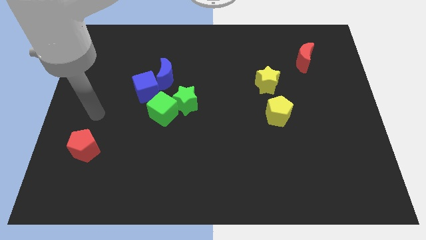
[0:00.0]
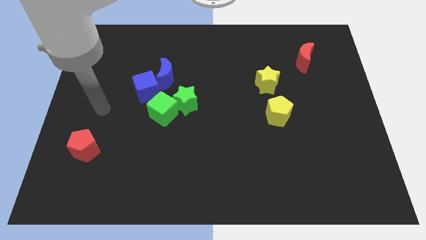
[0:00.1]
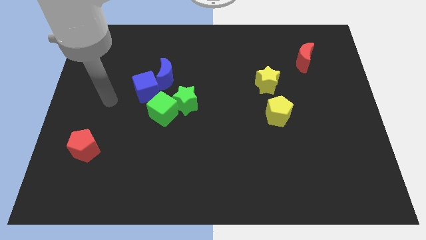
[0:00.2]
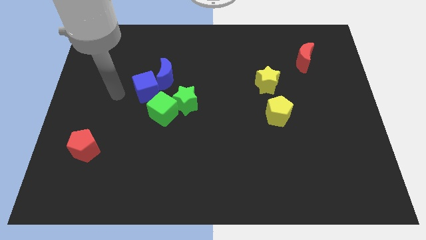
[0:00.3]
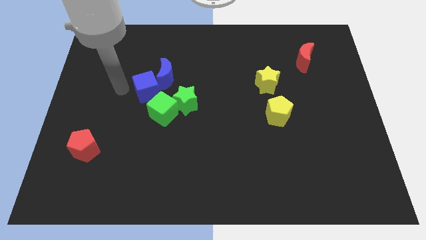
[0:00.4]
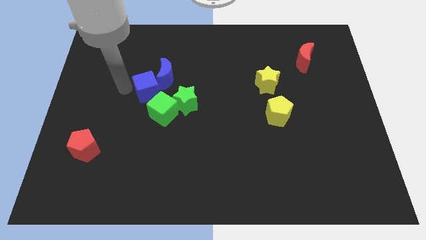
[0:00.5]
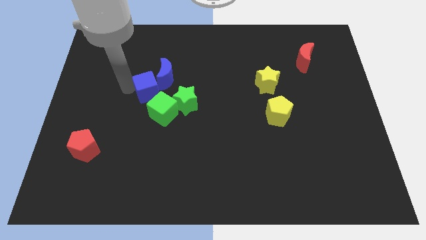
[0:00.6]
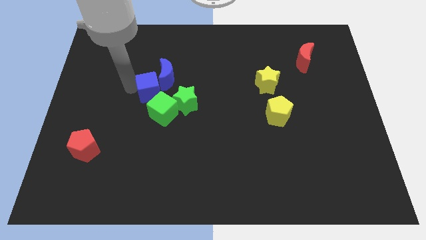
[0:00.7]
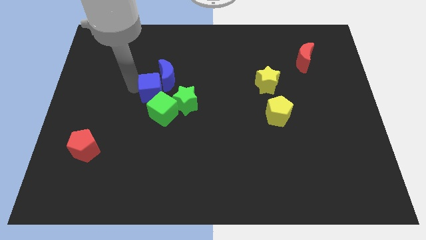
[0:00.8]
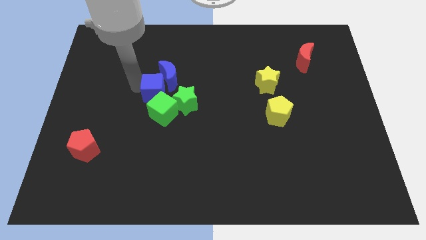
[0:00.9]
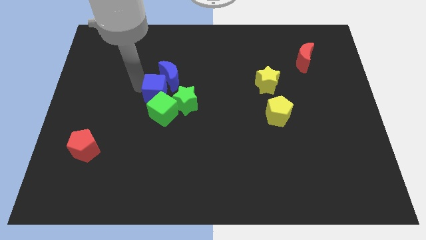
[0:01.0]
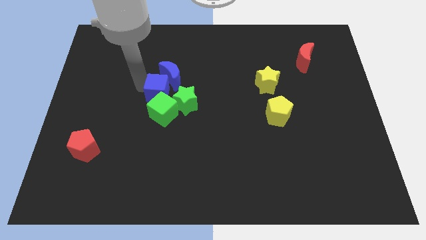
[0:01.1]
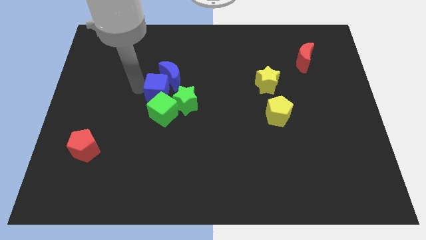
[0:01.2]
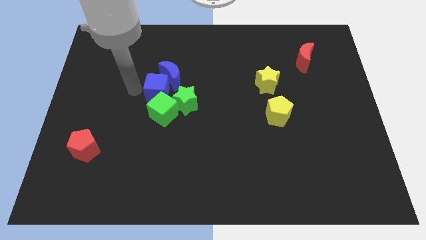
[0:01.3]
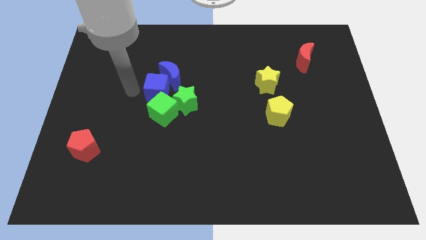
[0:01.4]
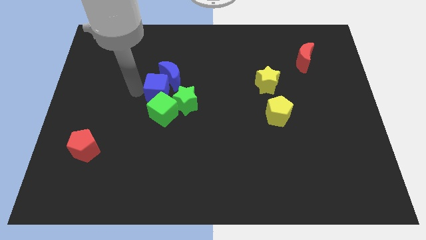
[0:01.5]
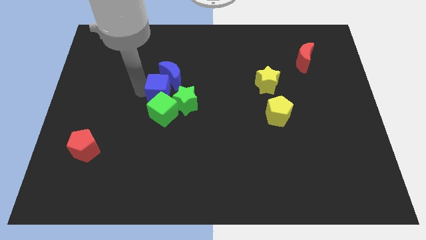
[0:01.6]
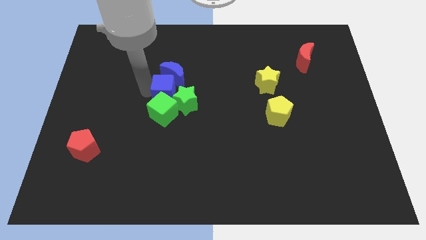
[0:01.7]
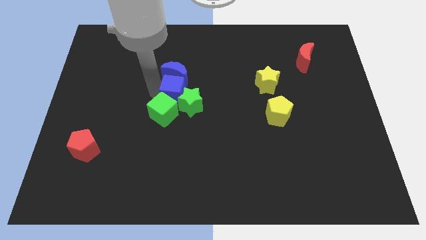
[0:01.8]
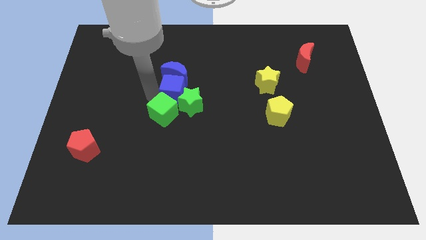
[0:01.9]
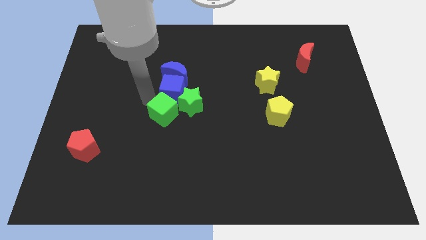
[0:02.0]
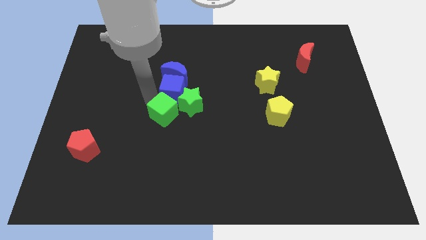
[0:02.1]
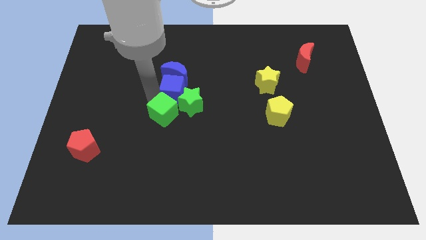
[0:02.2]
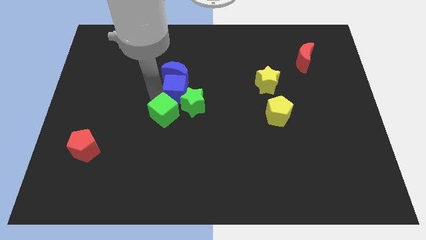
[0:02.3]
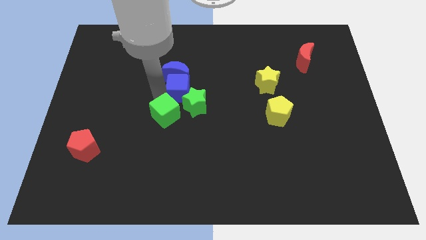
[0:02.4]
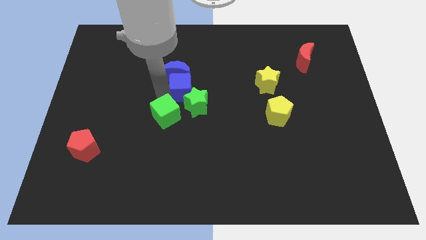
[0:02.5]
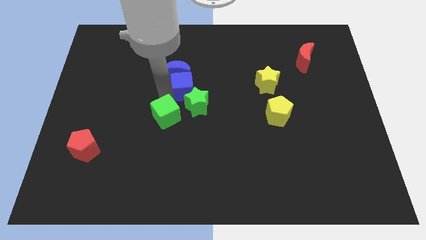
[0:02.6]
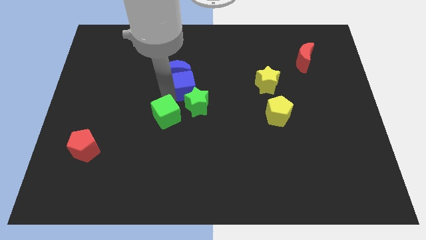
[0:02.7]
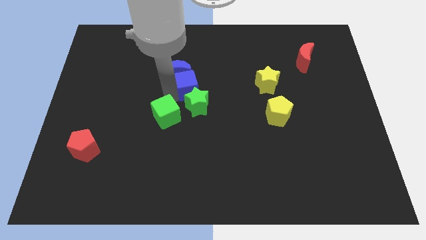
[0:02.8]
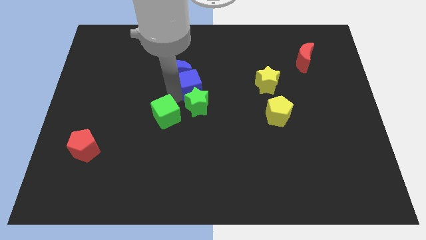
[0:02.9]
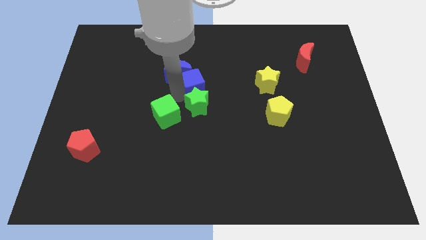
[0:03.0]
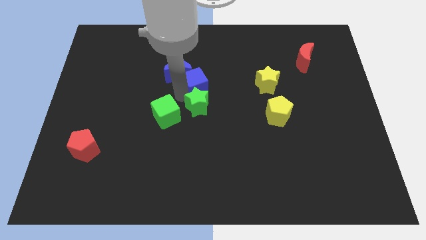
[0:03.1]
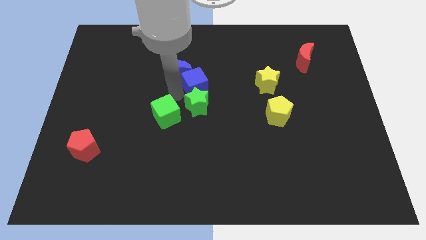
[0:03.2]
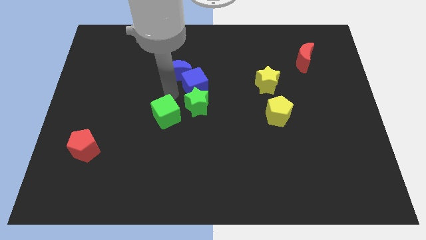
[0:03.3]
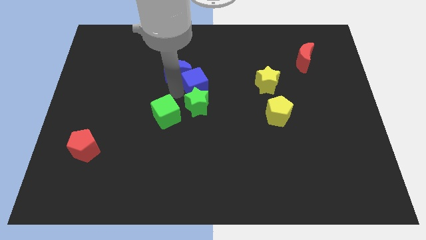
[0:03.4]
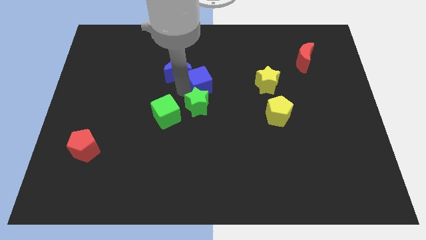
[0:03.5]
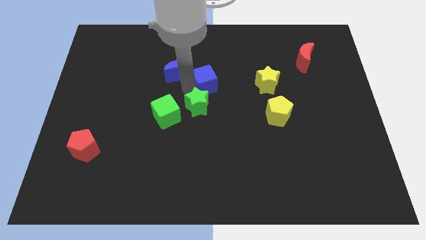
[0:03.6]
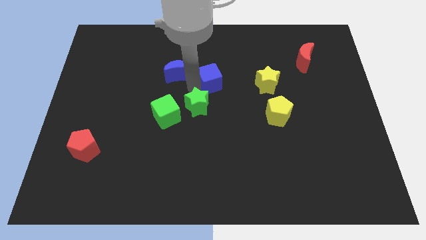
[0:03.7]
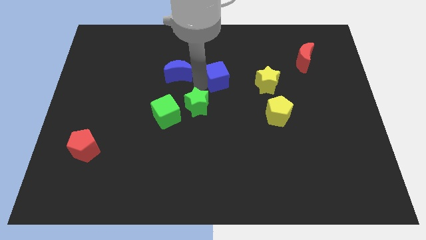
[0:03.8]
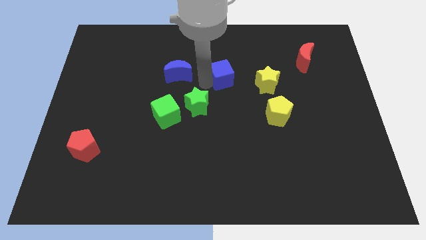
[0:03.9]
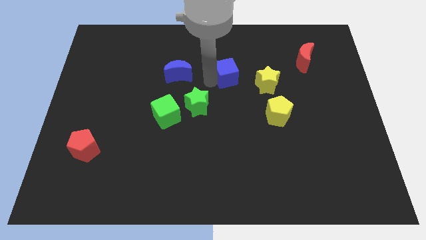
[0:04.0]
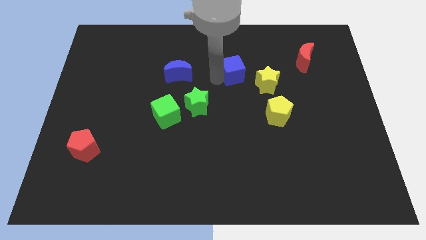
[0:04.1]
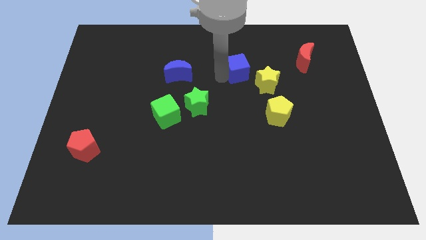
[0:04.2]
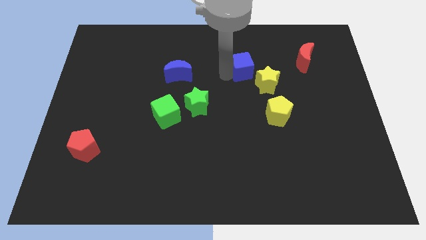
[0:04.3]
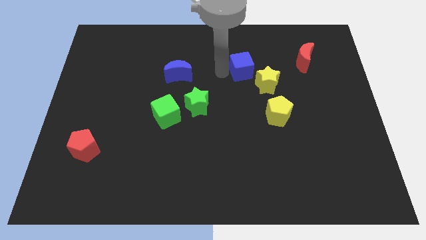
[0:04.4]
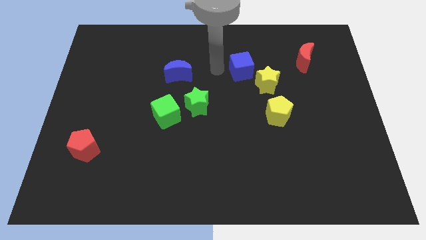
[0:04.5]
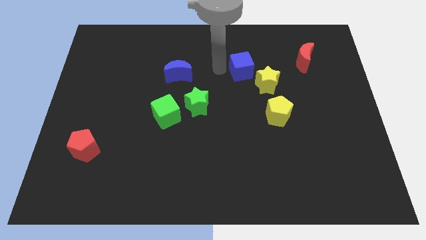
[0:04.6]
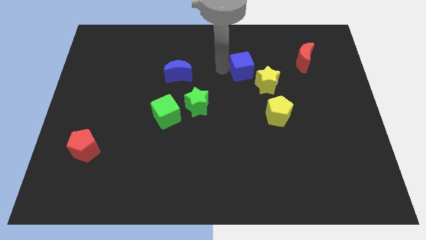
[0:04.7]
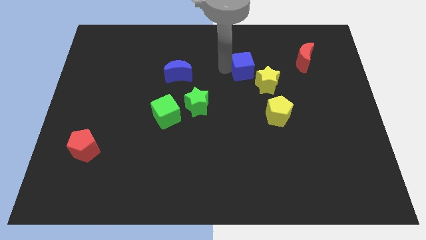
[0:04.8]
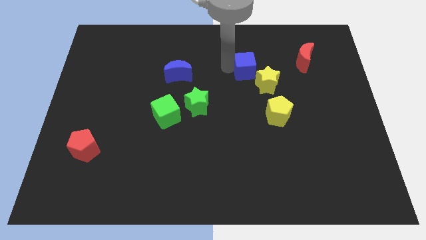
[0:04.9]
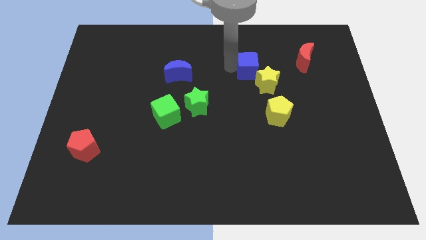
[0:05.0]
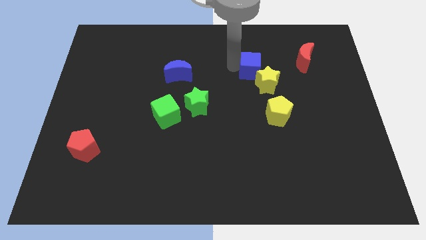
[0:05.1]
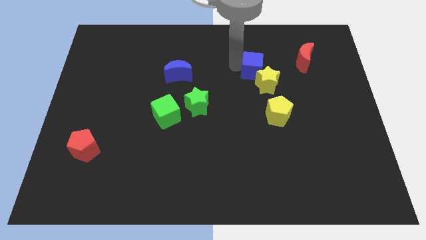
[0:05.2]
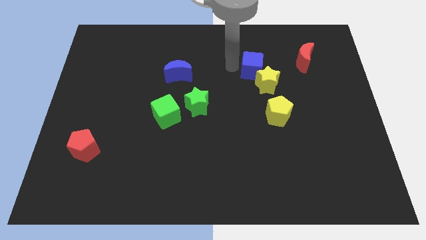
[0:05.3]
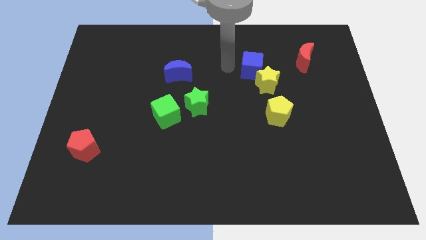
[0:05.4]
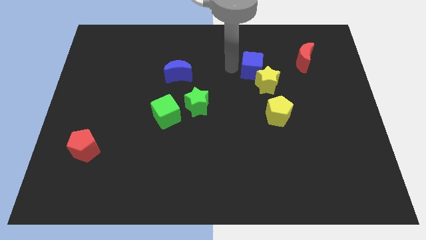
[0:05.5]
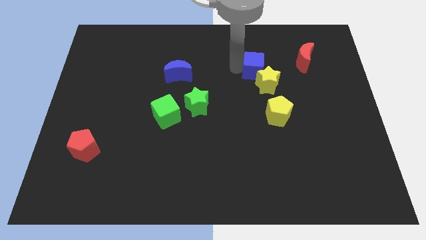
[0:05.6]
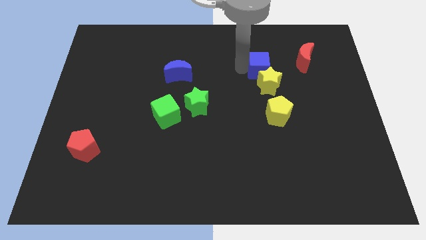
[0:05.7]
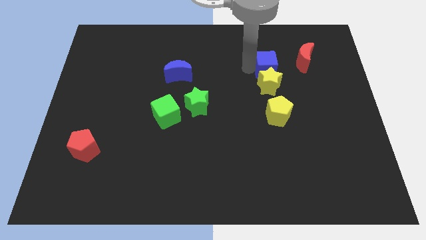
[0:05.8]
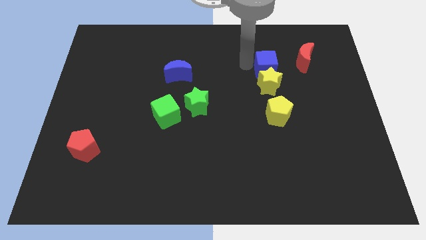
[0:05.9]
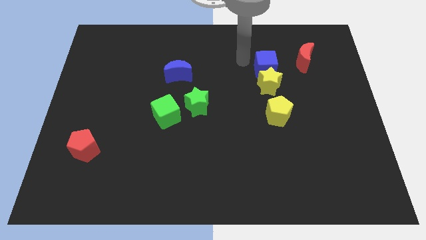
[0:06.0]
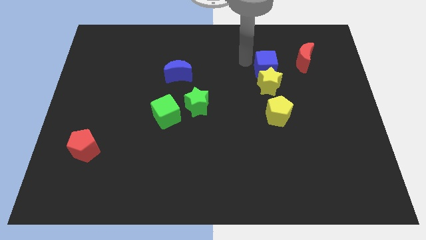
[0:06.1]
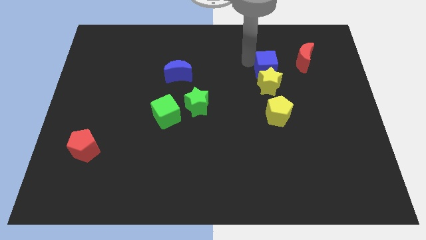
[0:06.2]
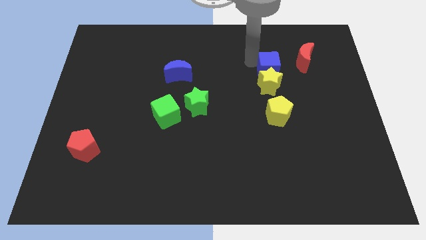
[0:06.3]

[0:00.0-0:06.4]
slide the blue cube to the bottom left of the red moon

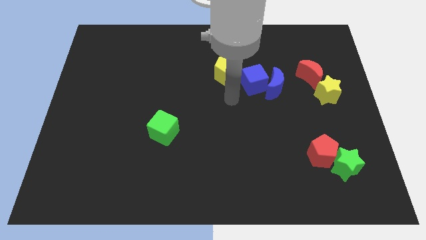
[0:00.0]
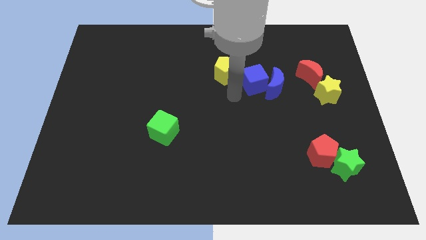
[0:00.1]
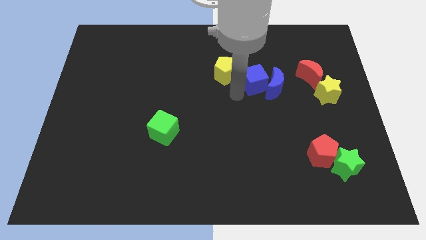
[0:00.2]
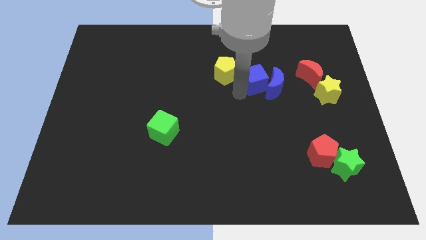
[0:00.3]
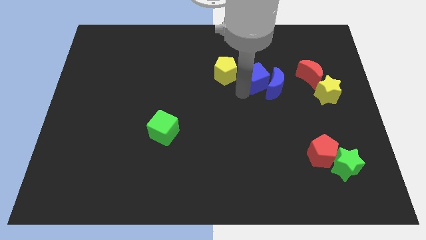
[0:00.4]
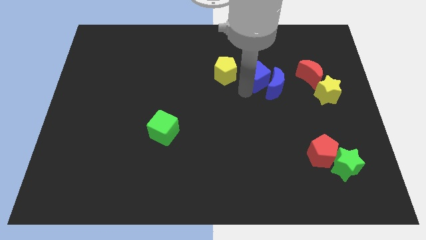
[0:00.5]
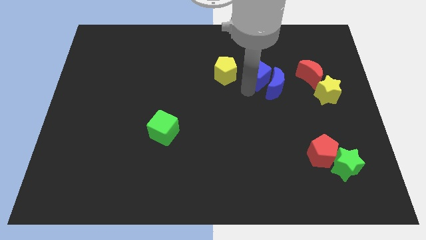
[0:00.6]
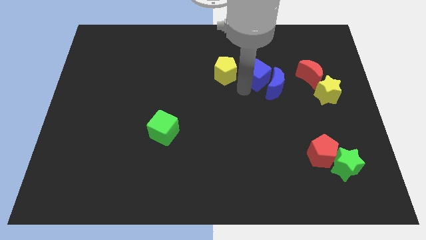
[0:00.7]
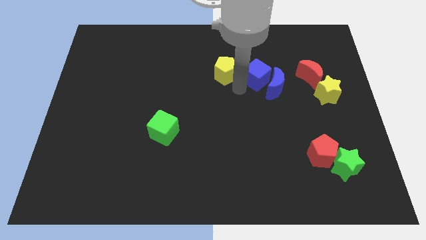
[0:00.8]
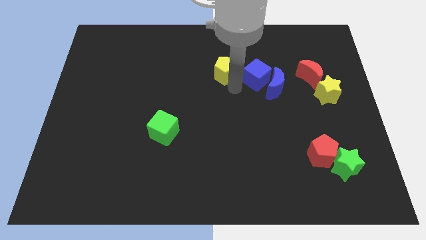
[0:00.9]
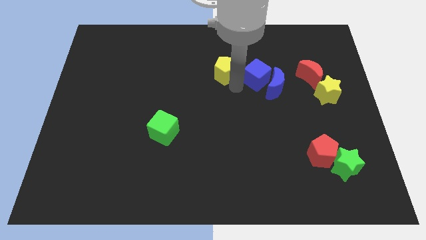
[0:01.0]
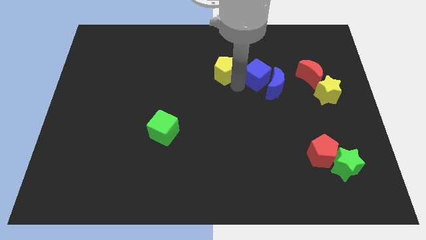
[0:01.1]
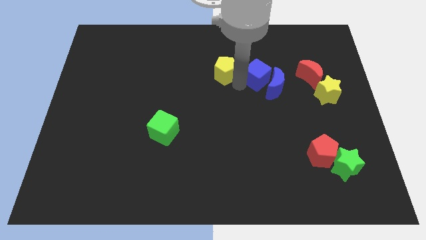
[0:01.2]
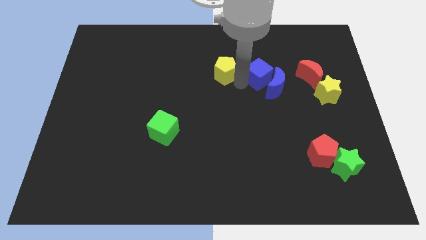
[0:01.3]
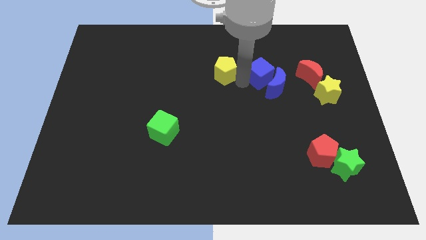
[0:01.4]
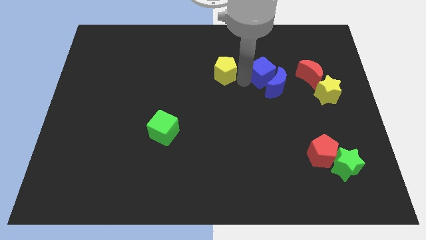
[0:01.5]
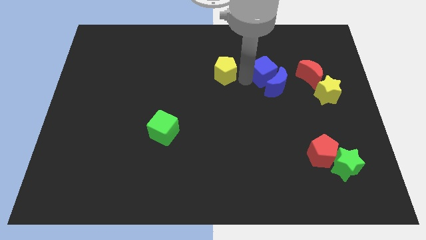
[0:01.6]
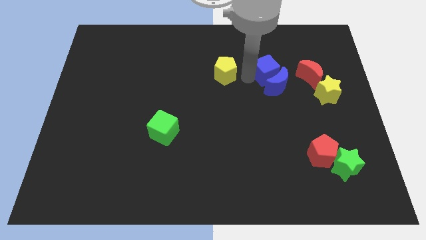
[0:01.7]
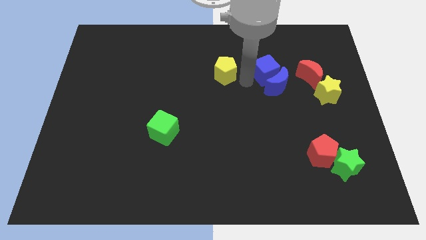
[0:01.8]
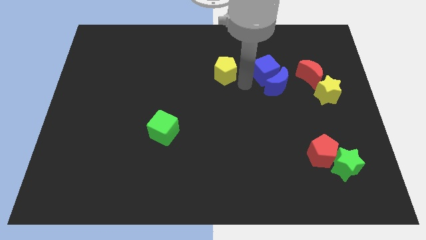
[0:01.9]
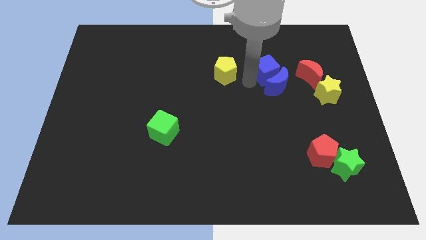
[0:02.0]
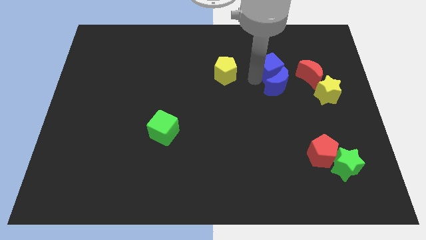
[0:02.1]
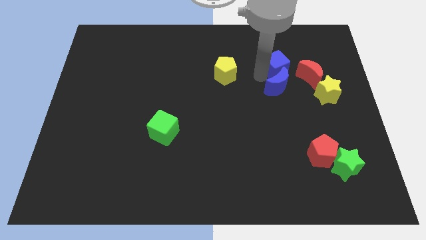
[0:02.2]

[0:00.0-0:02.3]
move the blue cube to the top left side of the red moon
